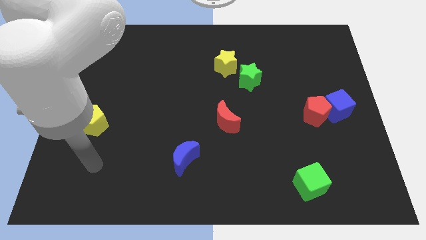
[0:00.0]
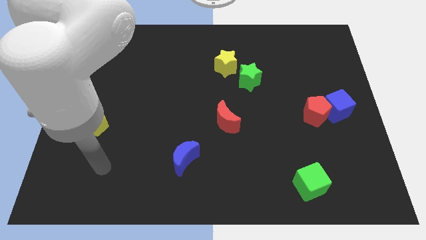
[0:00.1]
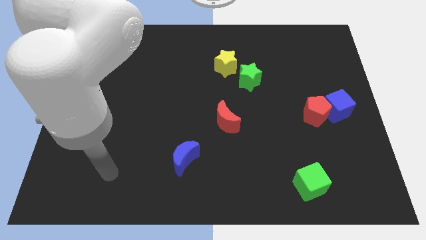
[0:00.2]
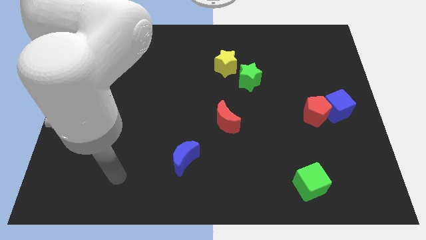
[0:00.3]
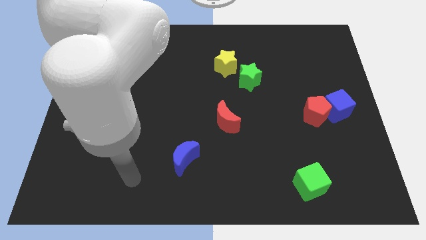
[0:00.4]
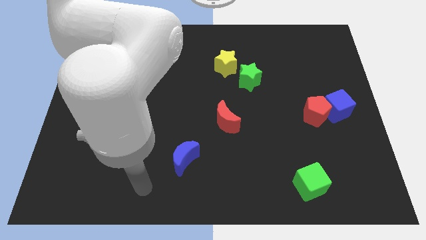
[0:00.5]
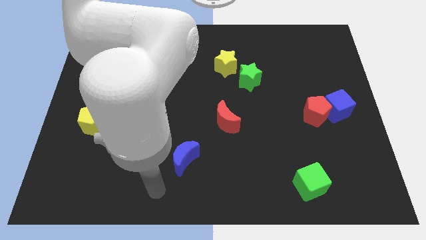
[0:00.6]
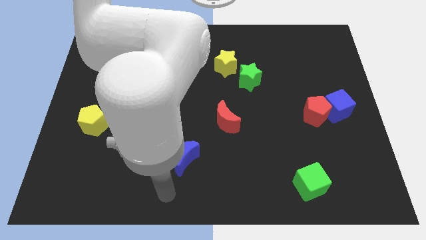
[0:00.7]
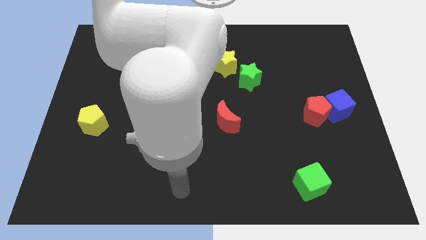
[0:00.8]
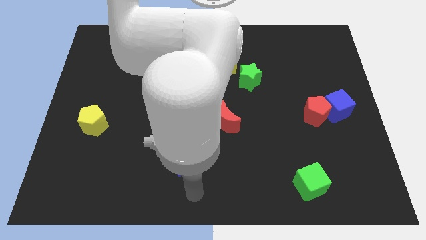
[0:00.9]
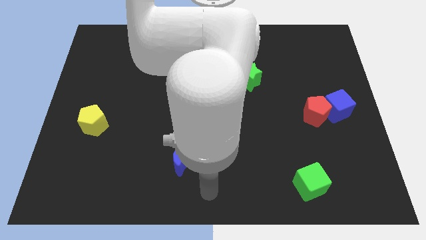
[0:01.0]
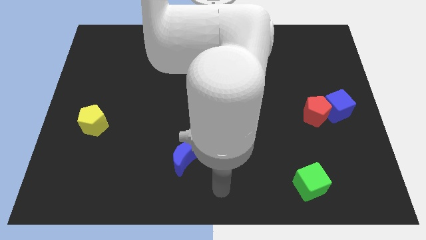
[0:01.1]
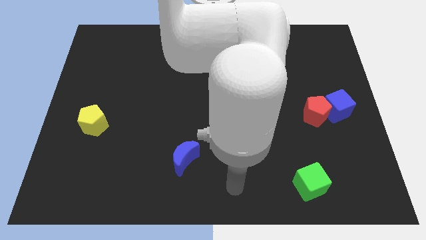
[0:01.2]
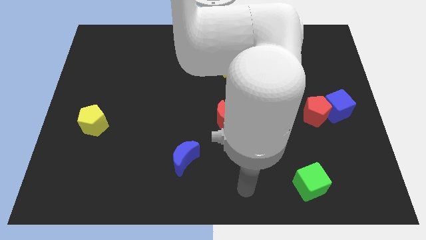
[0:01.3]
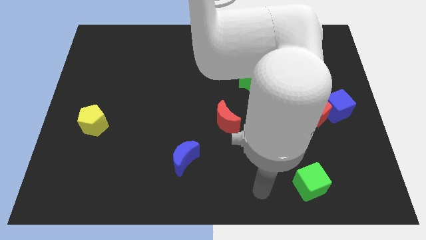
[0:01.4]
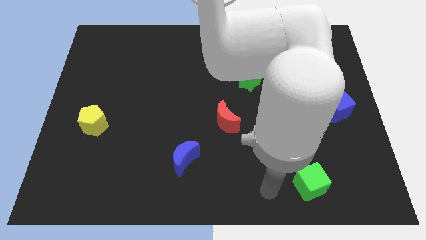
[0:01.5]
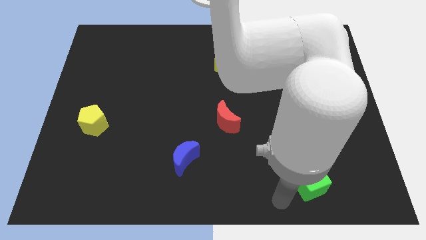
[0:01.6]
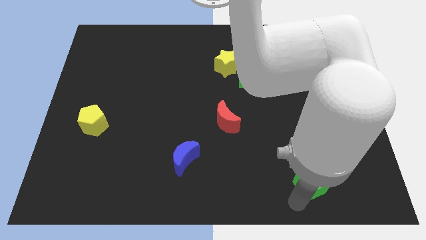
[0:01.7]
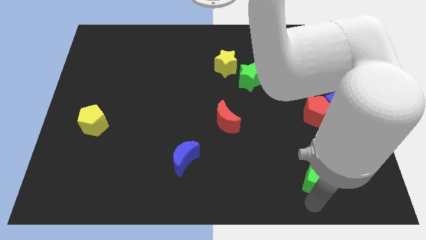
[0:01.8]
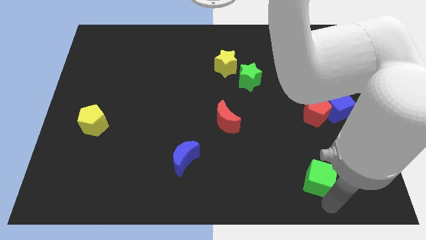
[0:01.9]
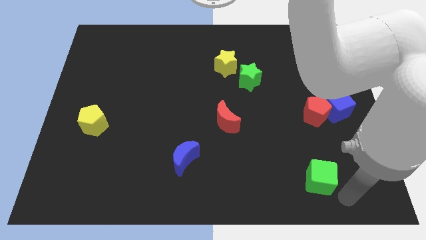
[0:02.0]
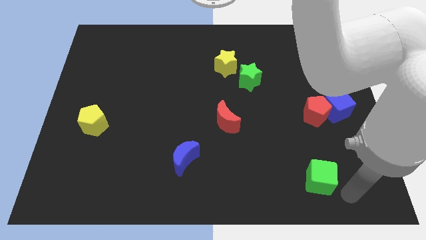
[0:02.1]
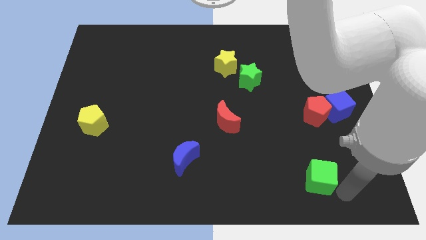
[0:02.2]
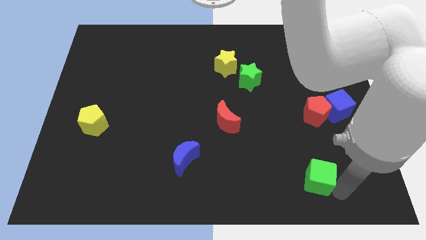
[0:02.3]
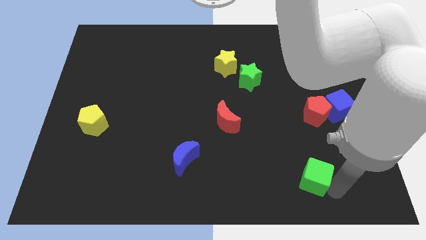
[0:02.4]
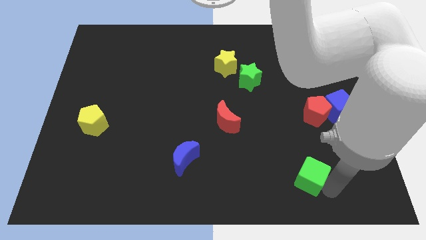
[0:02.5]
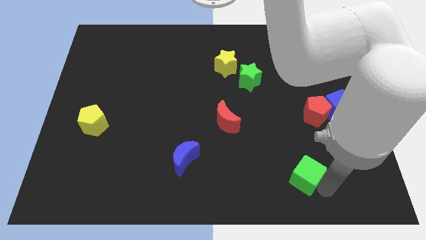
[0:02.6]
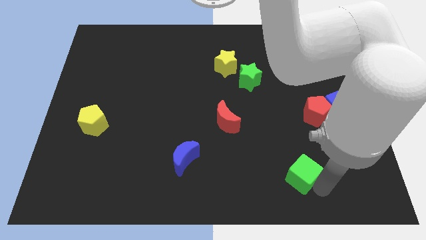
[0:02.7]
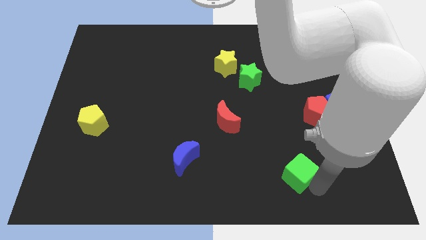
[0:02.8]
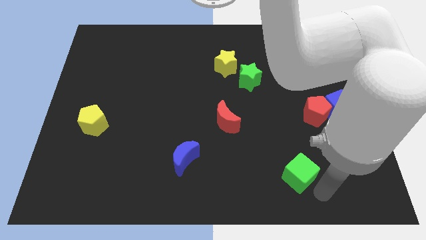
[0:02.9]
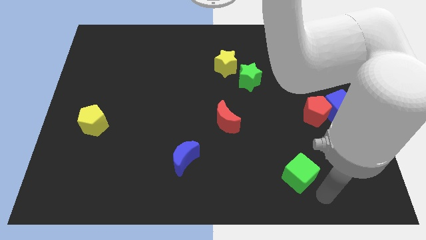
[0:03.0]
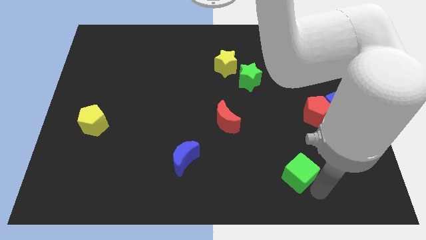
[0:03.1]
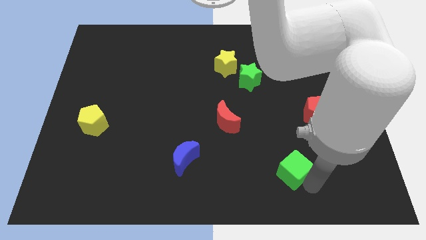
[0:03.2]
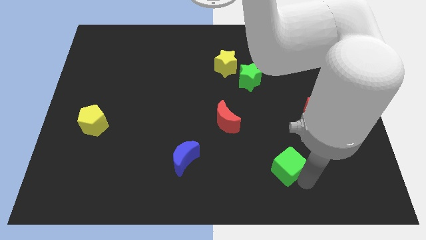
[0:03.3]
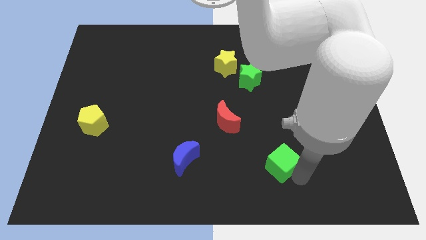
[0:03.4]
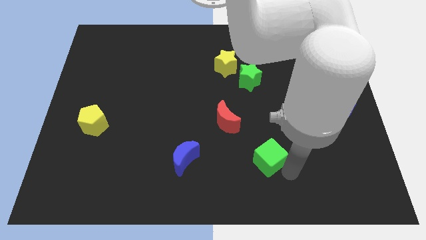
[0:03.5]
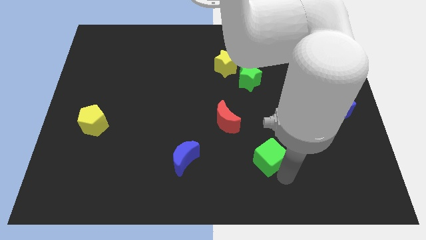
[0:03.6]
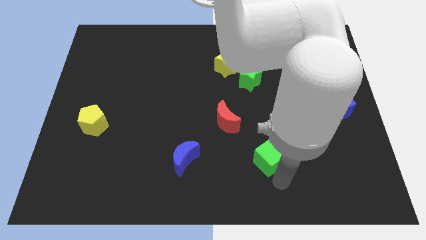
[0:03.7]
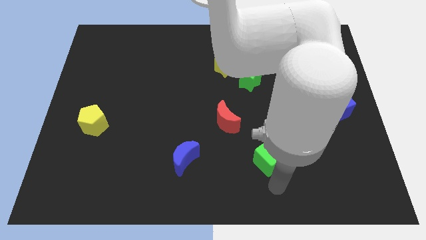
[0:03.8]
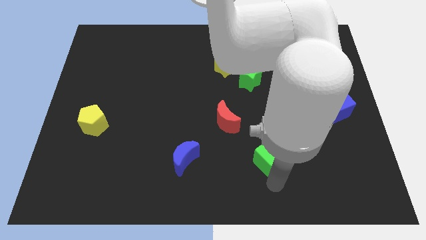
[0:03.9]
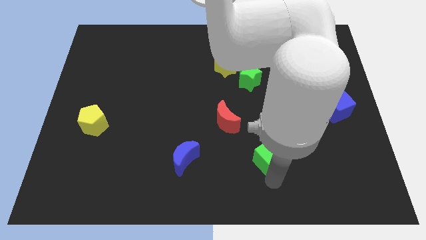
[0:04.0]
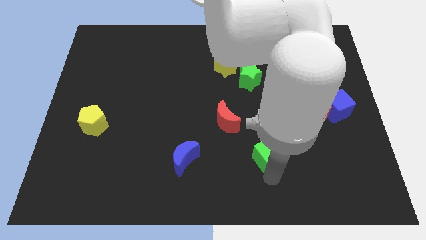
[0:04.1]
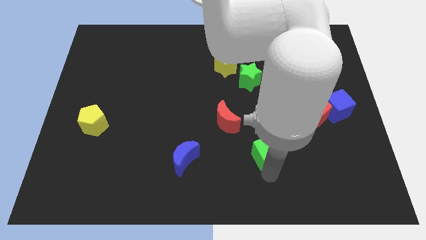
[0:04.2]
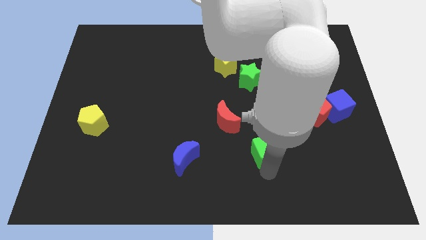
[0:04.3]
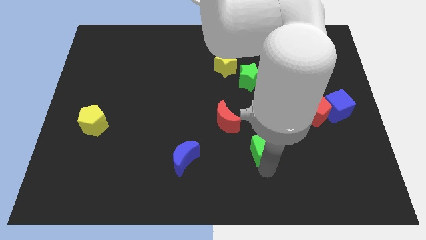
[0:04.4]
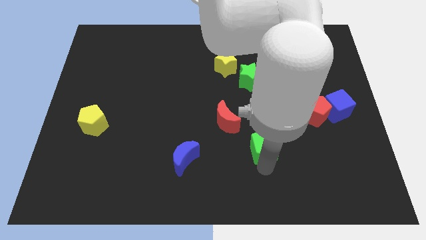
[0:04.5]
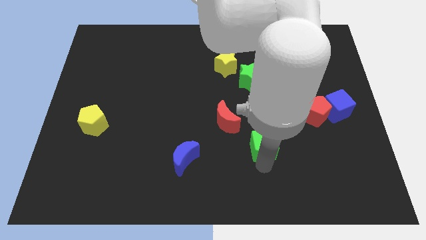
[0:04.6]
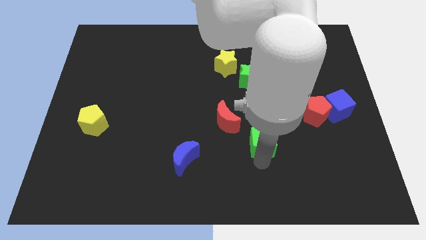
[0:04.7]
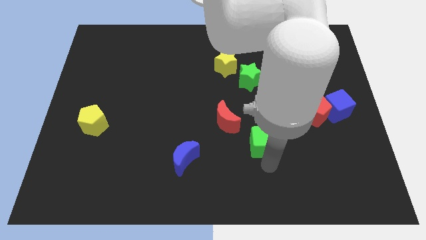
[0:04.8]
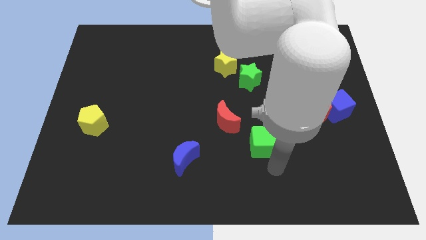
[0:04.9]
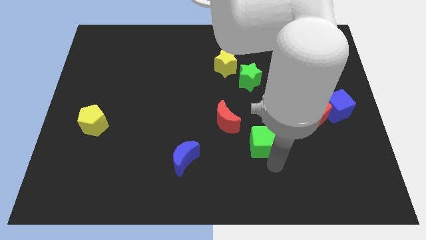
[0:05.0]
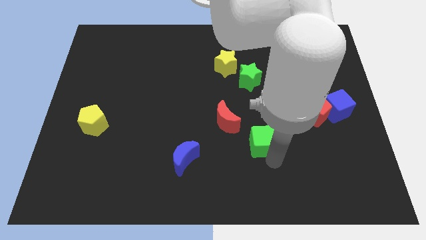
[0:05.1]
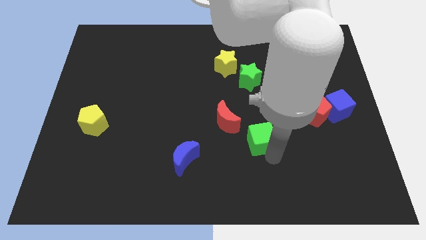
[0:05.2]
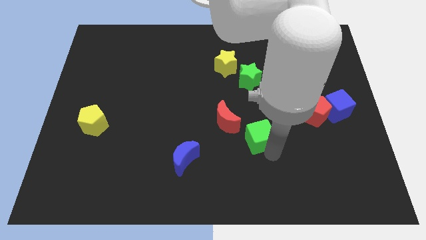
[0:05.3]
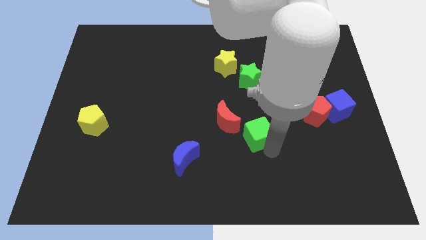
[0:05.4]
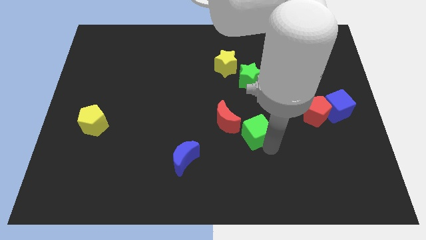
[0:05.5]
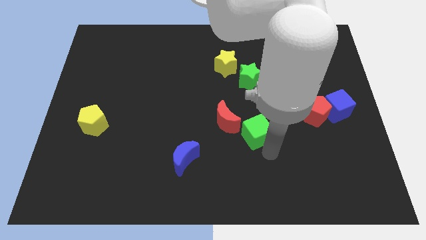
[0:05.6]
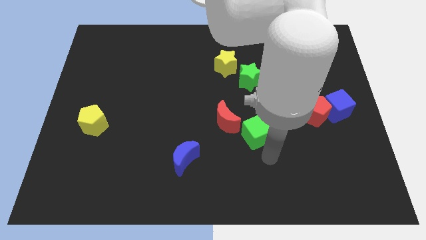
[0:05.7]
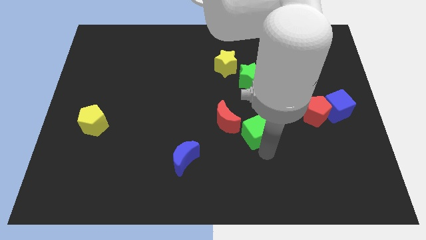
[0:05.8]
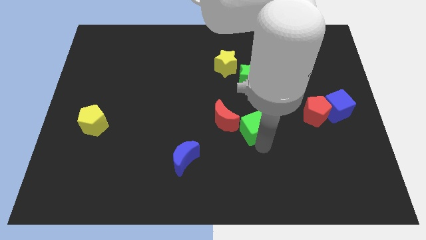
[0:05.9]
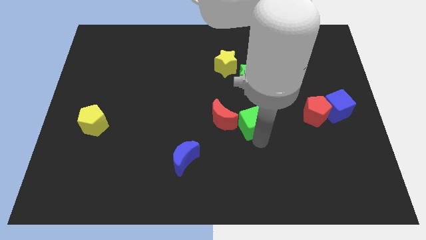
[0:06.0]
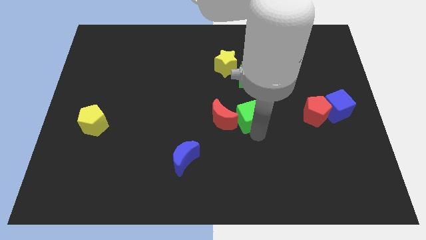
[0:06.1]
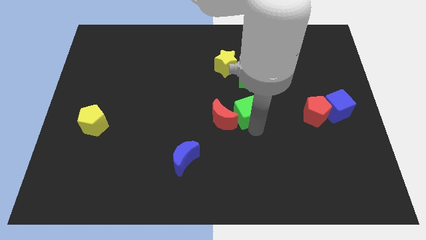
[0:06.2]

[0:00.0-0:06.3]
move the green cube upwards and left diagonally

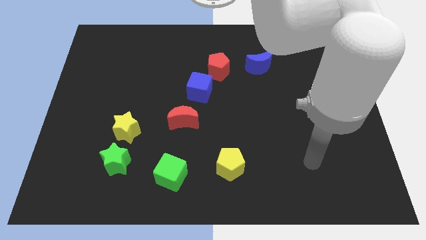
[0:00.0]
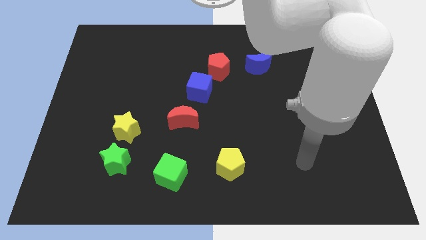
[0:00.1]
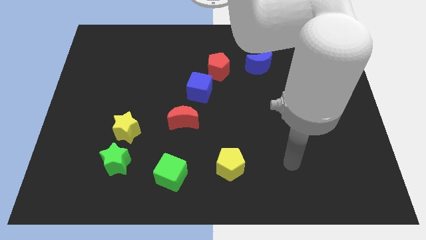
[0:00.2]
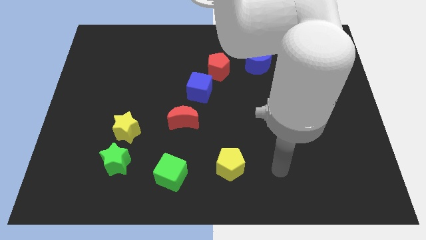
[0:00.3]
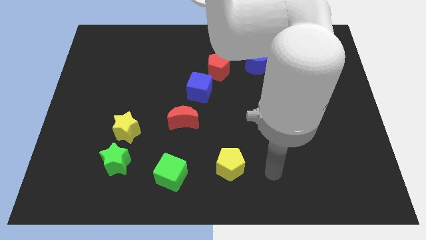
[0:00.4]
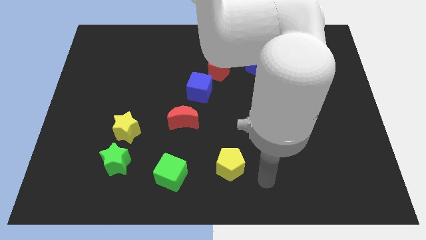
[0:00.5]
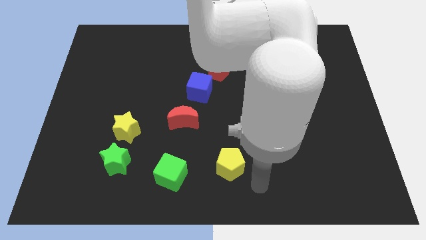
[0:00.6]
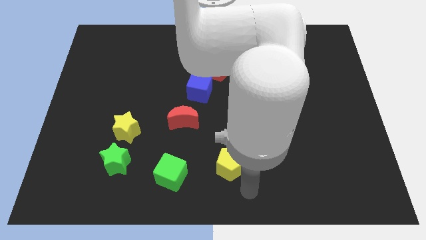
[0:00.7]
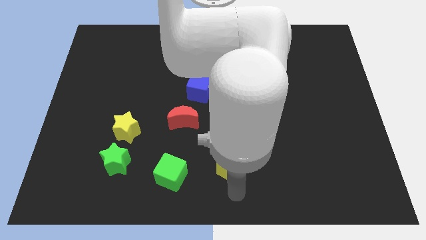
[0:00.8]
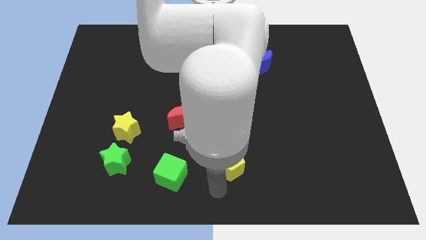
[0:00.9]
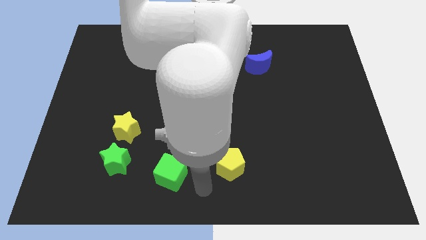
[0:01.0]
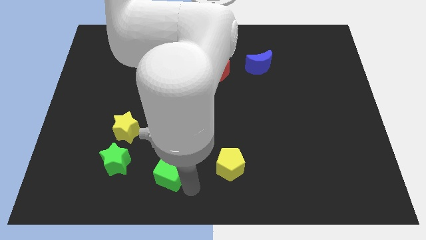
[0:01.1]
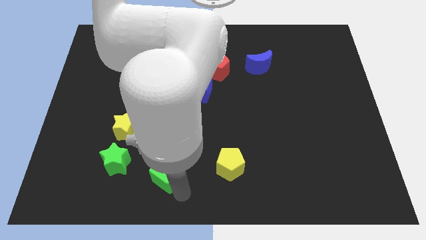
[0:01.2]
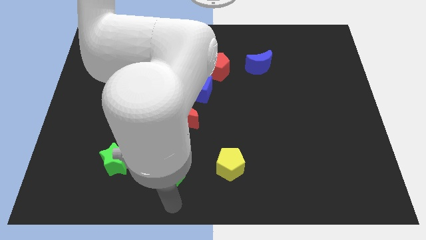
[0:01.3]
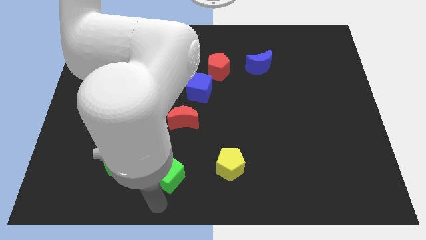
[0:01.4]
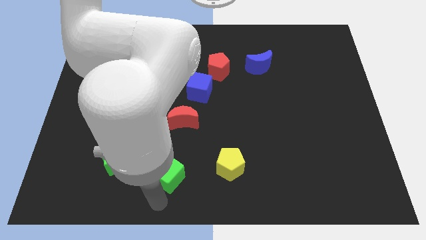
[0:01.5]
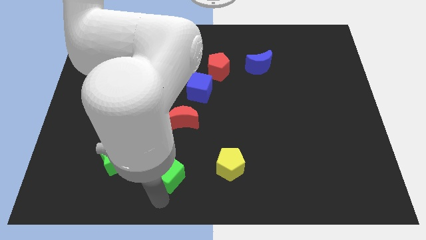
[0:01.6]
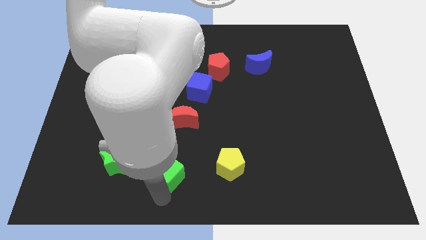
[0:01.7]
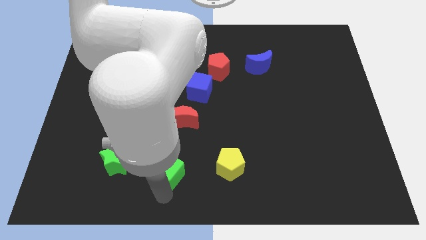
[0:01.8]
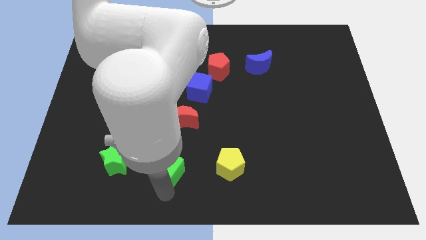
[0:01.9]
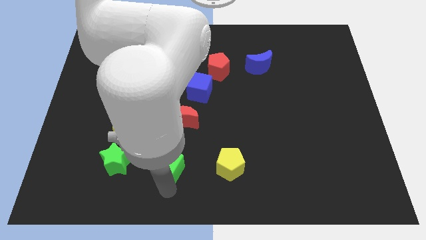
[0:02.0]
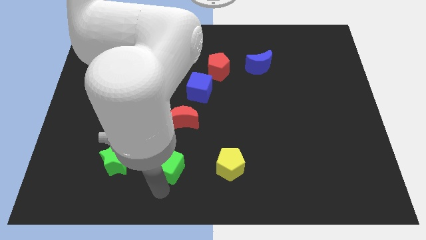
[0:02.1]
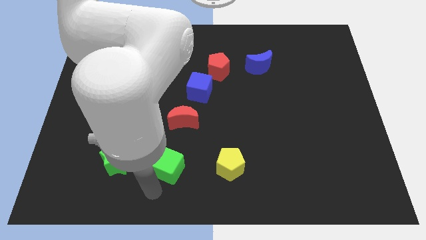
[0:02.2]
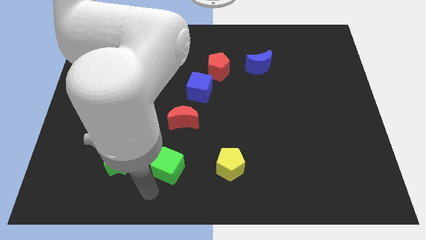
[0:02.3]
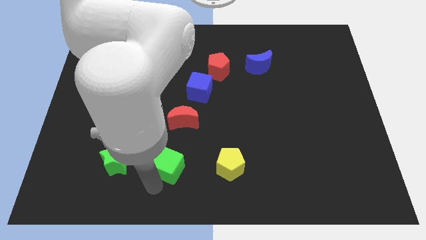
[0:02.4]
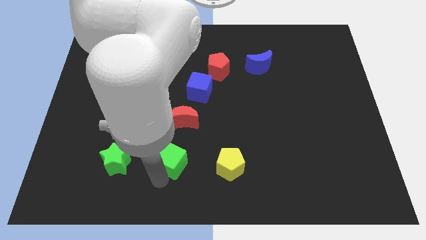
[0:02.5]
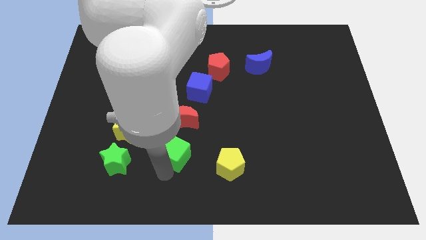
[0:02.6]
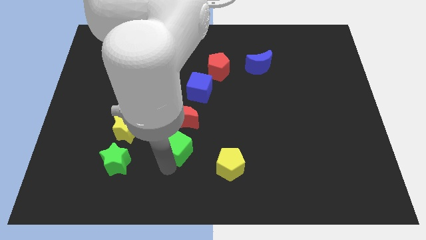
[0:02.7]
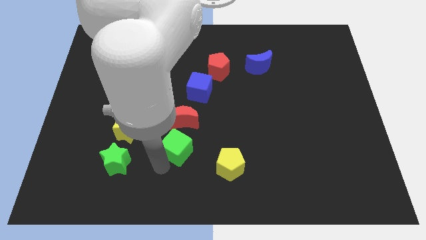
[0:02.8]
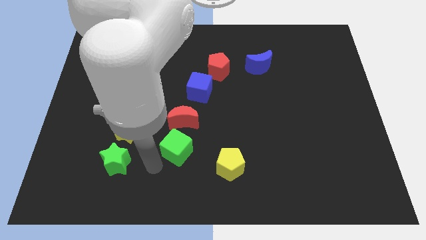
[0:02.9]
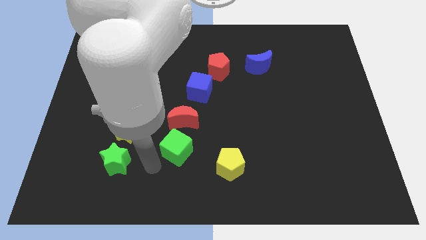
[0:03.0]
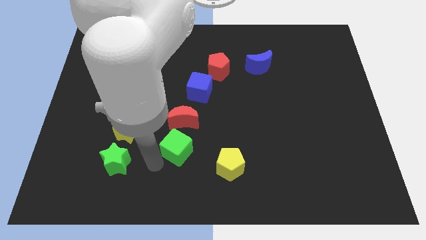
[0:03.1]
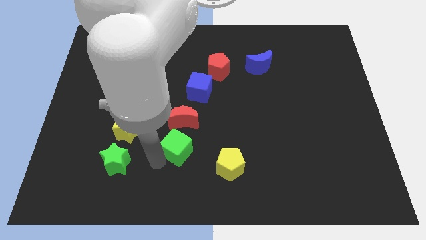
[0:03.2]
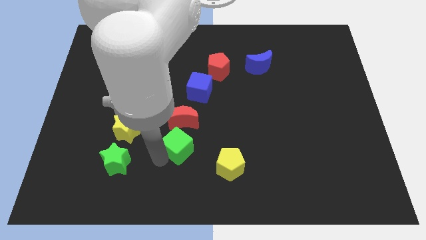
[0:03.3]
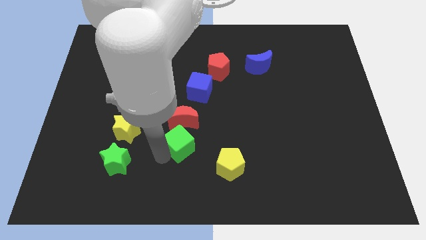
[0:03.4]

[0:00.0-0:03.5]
slightly move the green cube up
